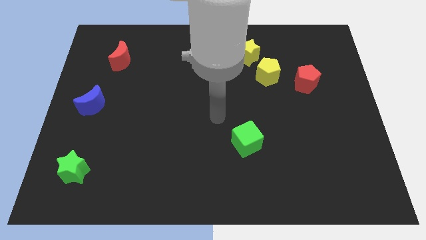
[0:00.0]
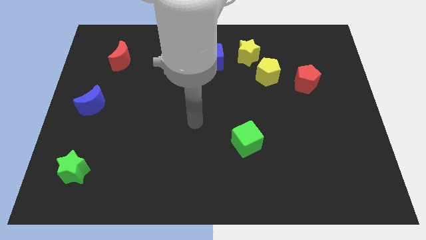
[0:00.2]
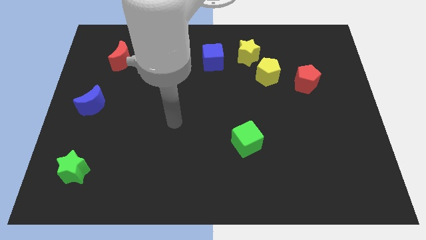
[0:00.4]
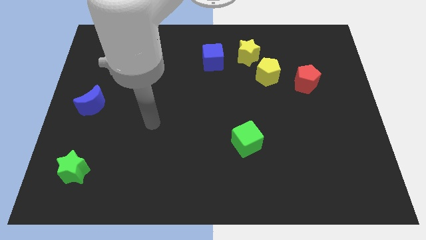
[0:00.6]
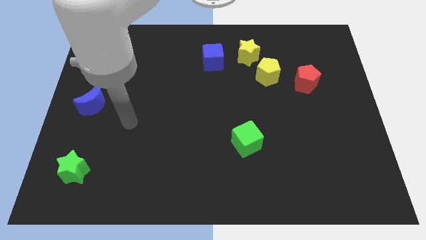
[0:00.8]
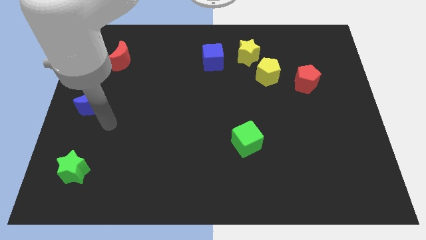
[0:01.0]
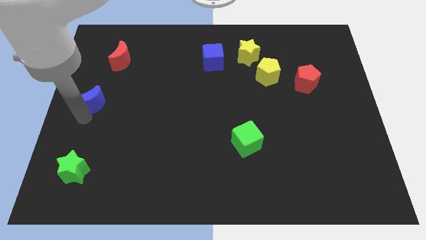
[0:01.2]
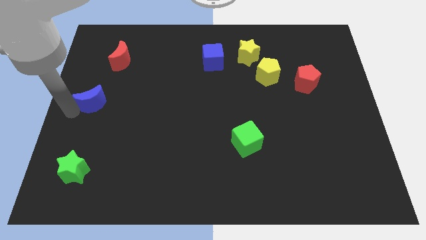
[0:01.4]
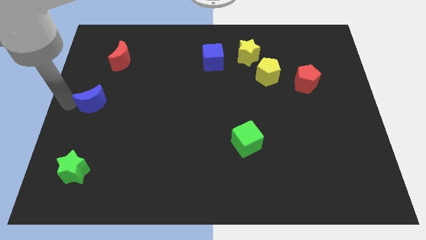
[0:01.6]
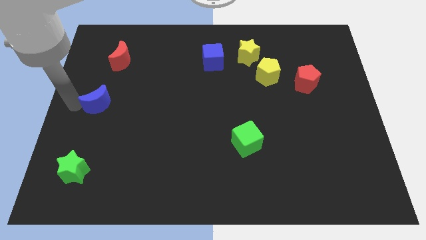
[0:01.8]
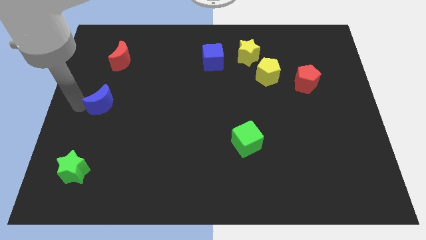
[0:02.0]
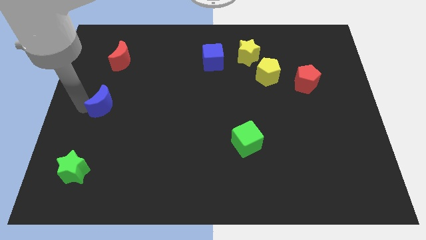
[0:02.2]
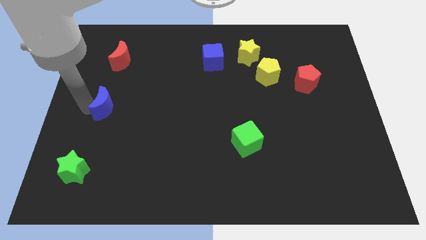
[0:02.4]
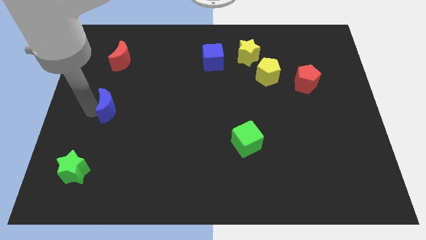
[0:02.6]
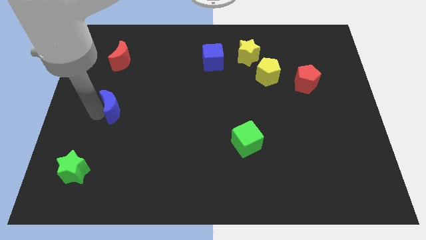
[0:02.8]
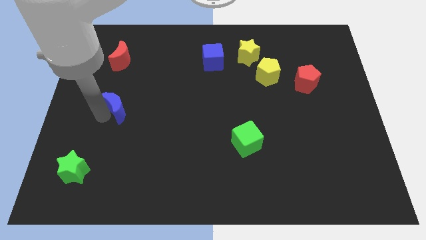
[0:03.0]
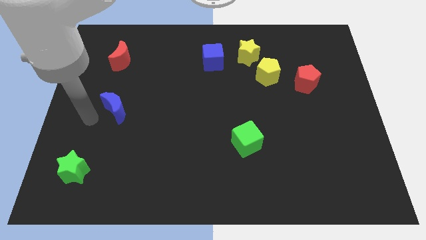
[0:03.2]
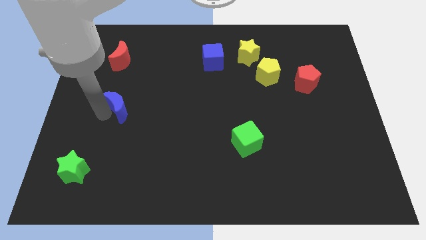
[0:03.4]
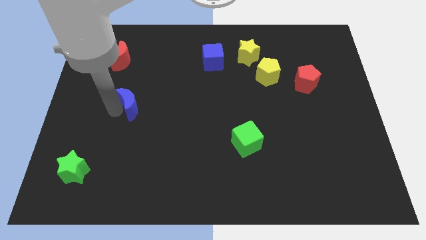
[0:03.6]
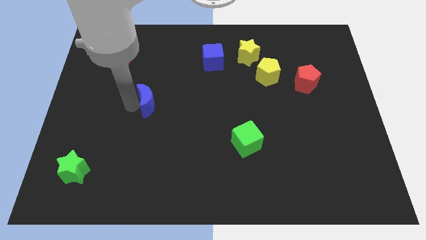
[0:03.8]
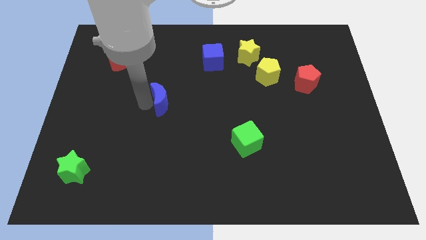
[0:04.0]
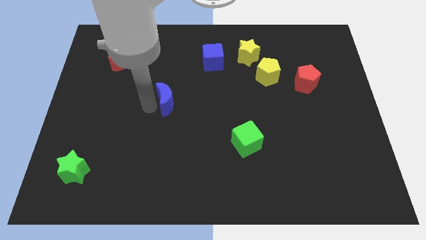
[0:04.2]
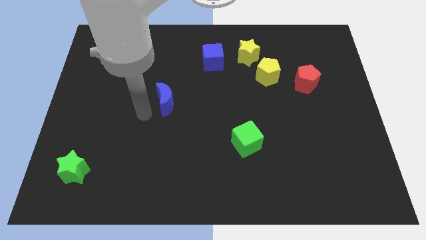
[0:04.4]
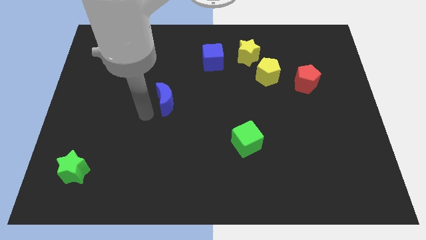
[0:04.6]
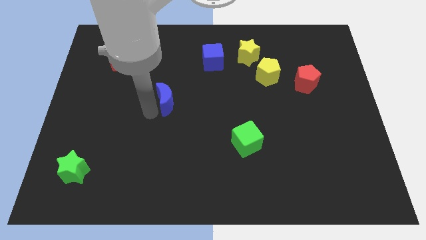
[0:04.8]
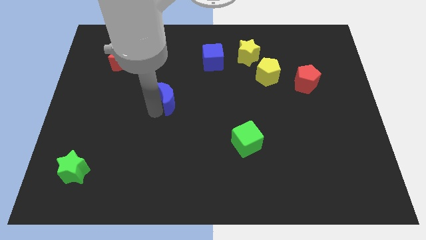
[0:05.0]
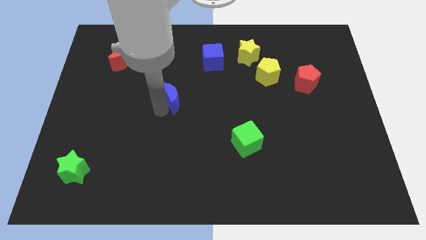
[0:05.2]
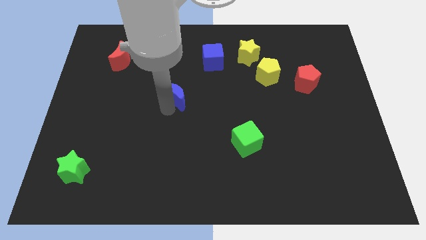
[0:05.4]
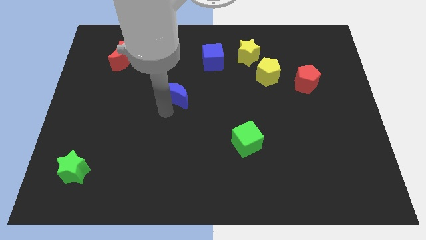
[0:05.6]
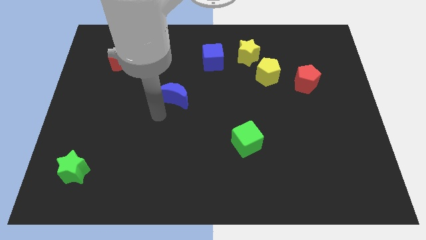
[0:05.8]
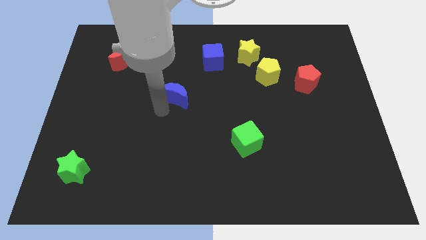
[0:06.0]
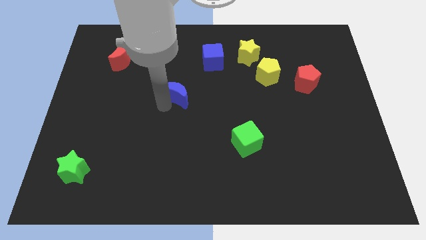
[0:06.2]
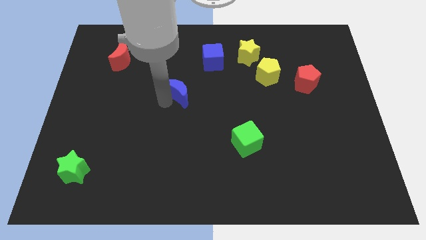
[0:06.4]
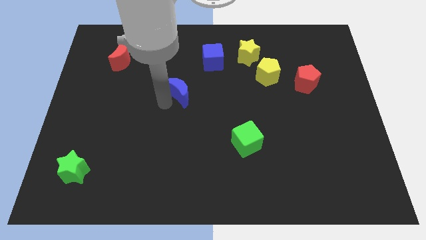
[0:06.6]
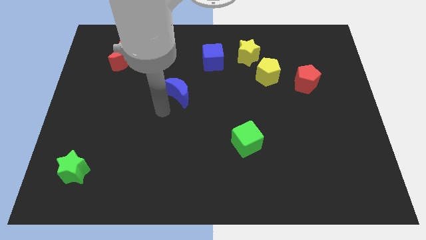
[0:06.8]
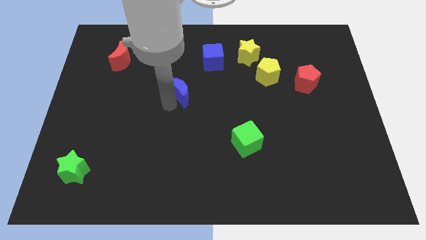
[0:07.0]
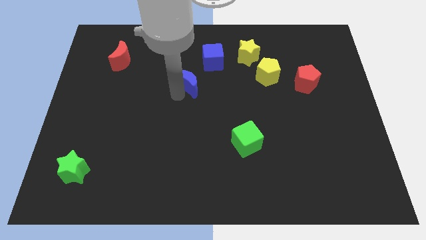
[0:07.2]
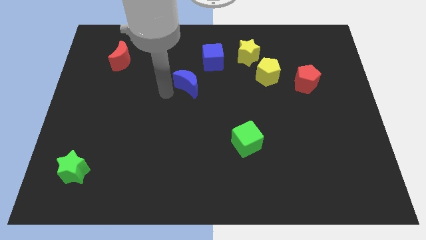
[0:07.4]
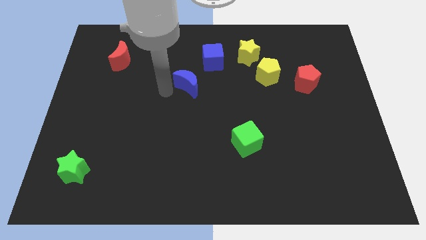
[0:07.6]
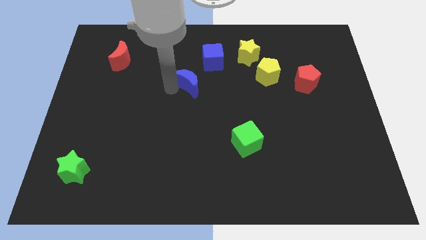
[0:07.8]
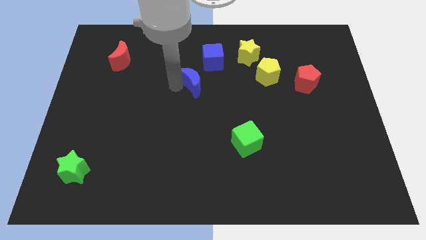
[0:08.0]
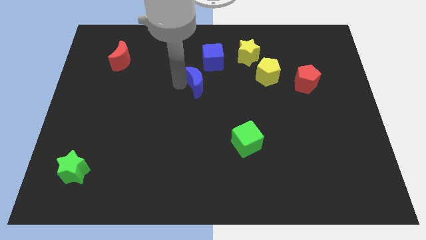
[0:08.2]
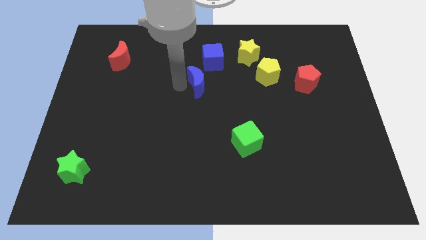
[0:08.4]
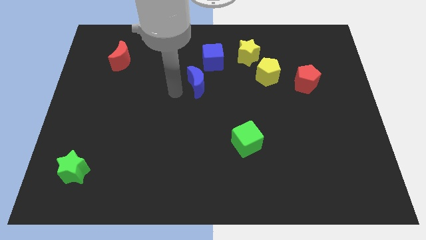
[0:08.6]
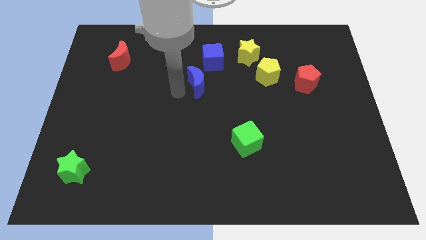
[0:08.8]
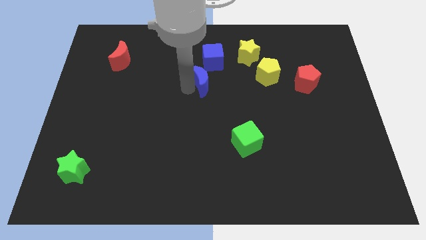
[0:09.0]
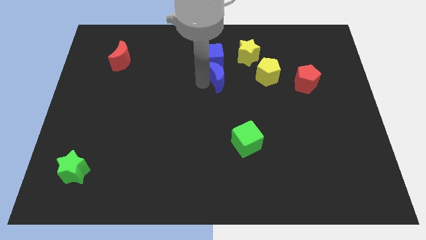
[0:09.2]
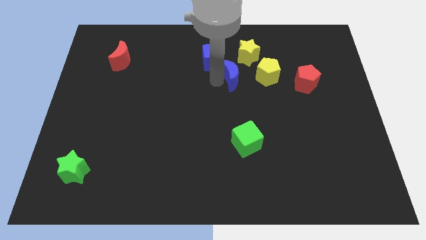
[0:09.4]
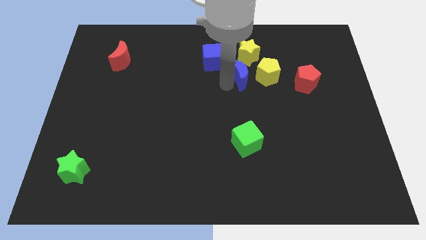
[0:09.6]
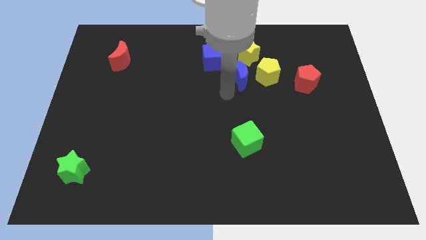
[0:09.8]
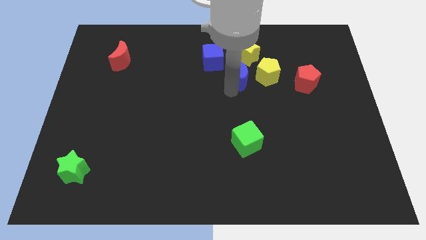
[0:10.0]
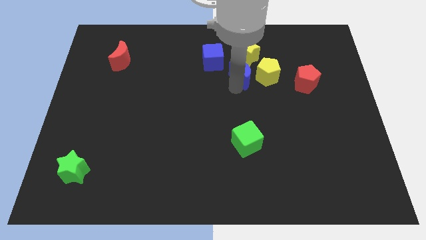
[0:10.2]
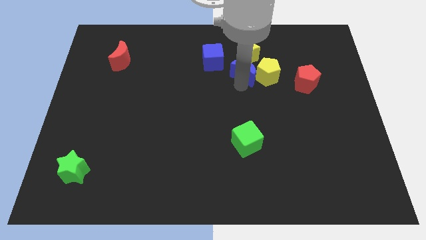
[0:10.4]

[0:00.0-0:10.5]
push the blue moon right of the blue cube

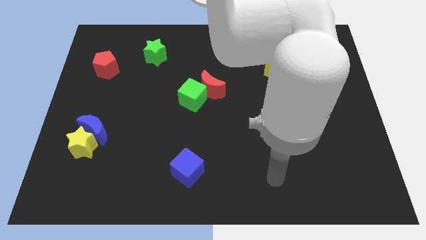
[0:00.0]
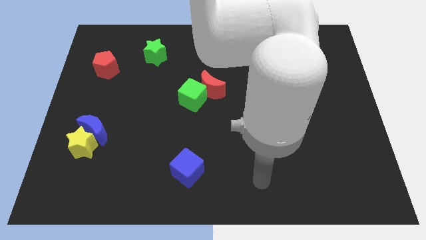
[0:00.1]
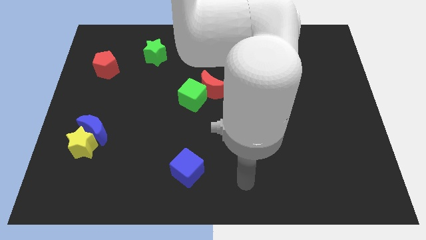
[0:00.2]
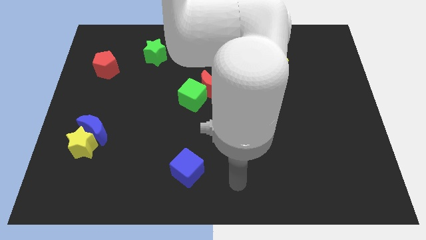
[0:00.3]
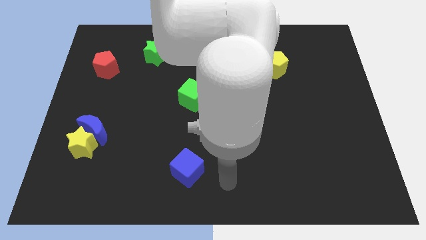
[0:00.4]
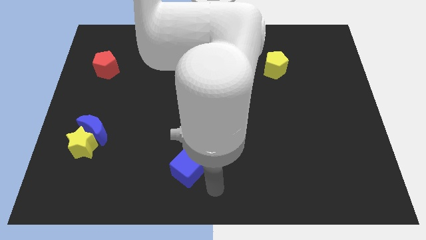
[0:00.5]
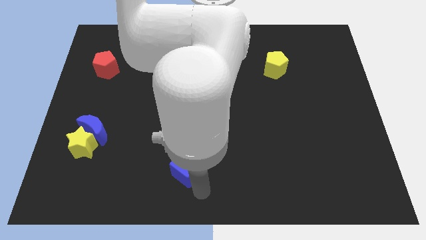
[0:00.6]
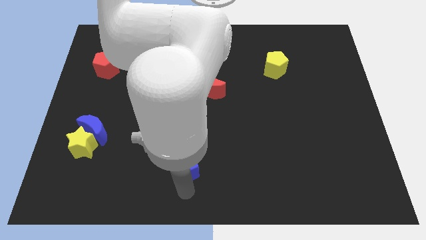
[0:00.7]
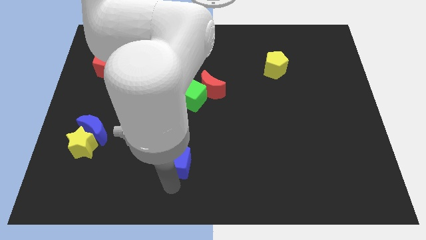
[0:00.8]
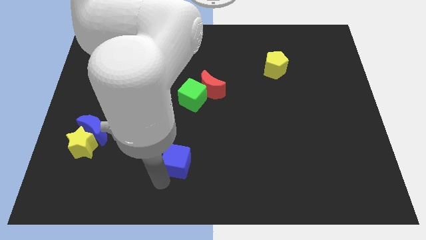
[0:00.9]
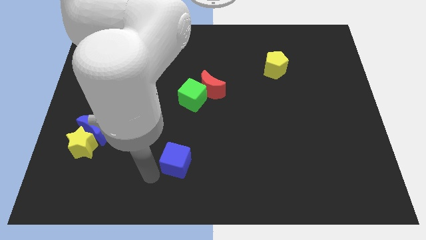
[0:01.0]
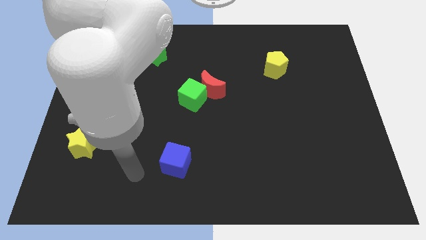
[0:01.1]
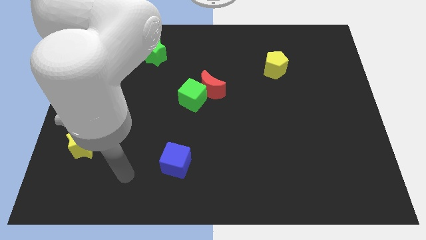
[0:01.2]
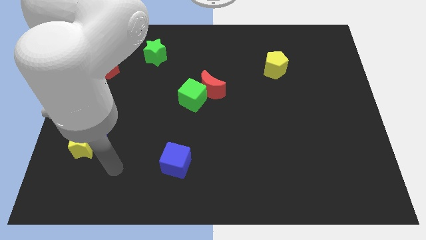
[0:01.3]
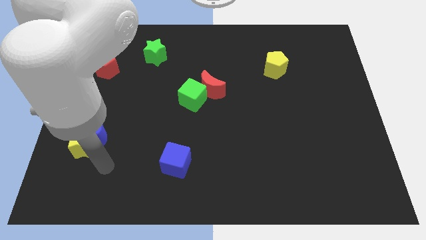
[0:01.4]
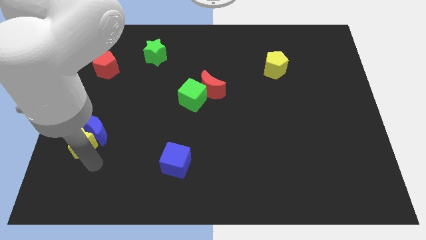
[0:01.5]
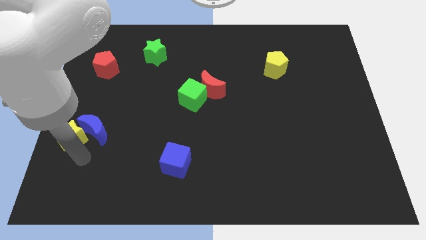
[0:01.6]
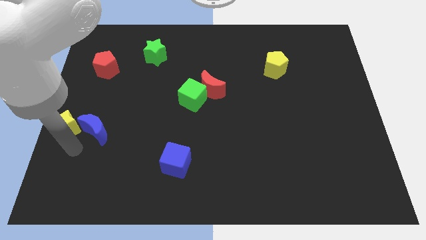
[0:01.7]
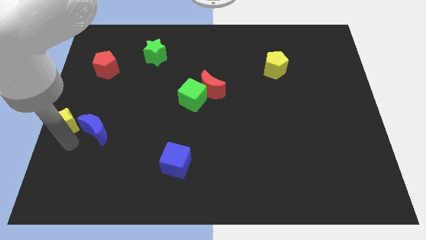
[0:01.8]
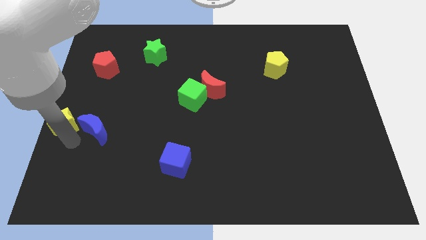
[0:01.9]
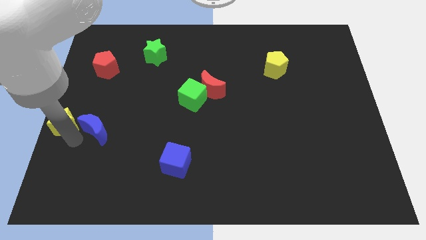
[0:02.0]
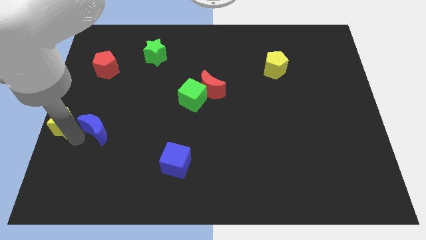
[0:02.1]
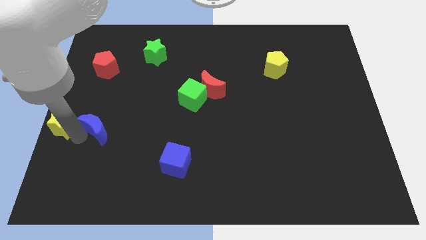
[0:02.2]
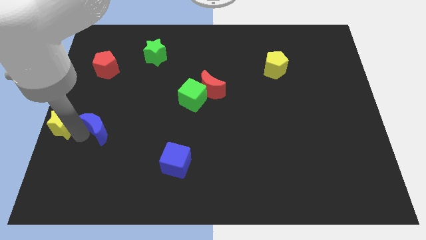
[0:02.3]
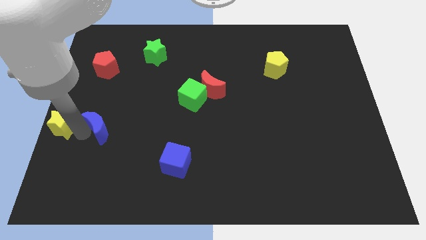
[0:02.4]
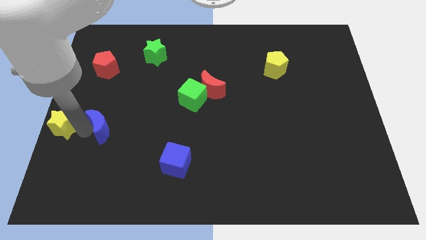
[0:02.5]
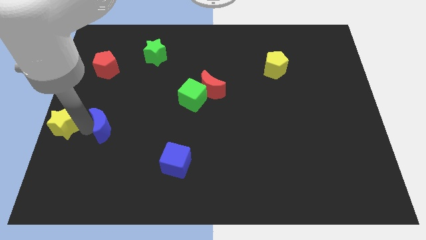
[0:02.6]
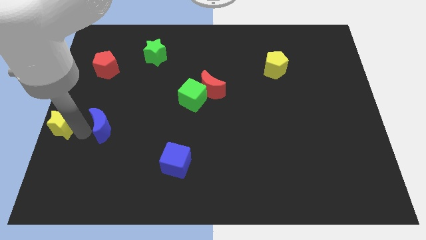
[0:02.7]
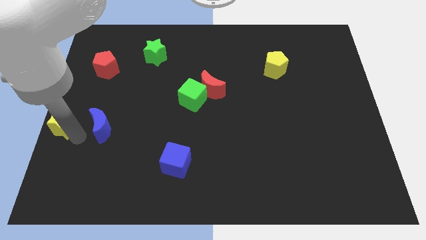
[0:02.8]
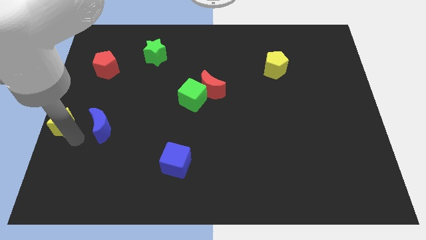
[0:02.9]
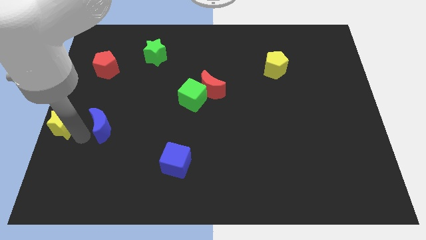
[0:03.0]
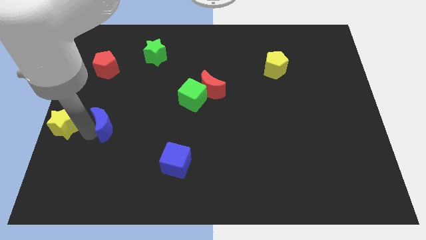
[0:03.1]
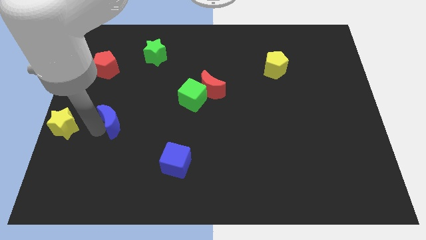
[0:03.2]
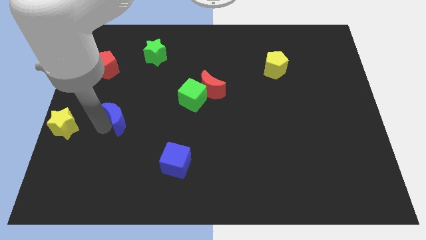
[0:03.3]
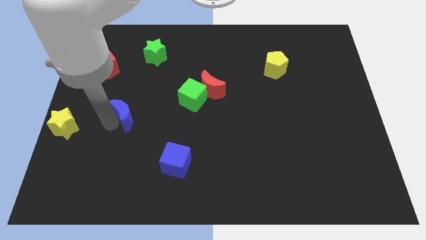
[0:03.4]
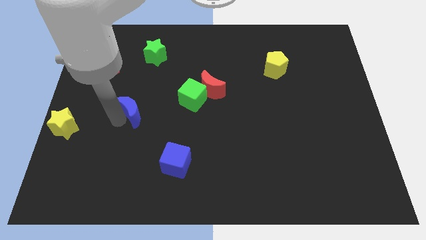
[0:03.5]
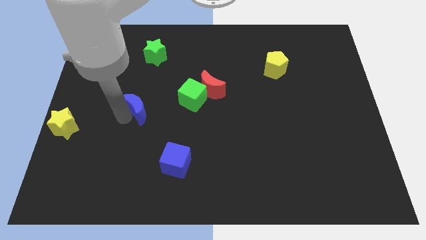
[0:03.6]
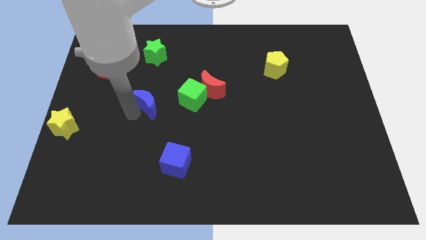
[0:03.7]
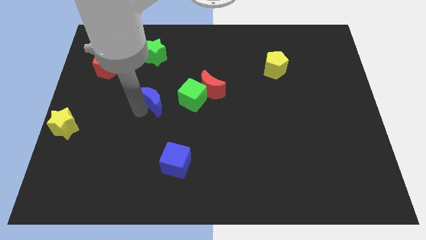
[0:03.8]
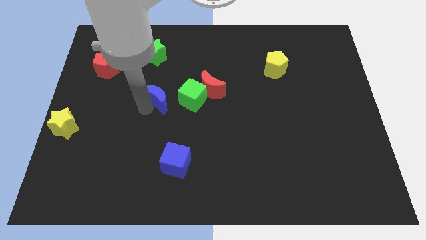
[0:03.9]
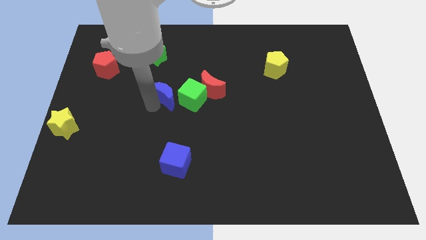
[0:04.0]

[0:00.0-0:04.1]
push the blue moon to the top left of the green cube
